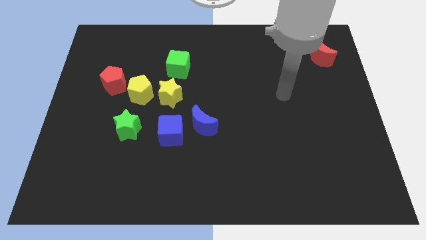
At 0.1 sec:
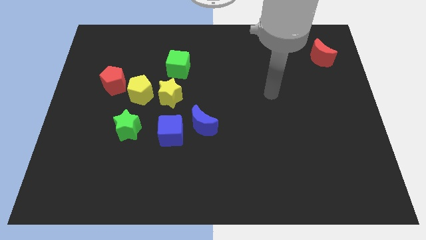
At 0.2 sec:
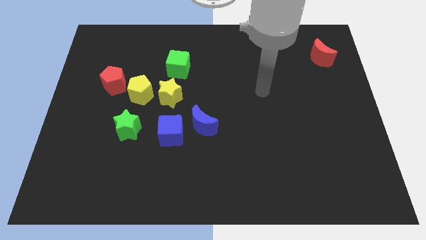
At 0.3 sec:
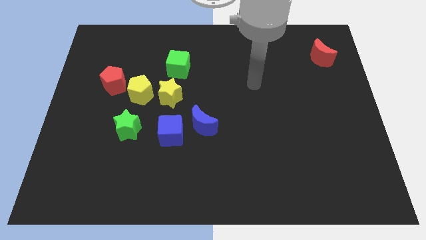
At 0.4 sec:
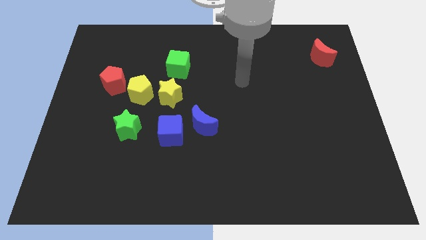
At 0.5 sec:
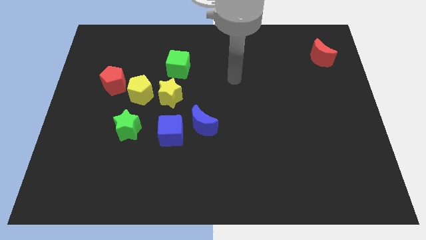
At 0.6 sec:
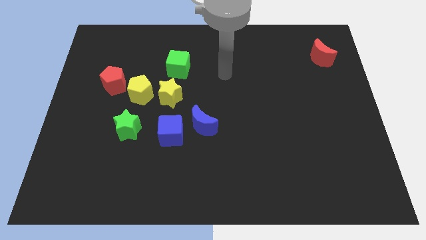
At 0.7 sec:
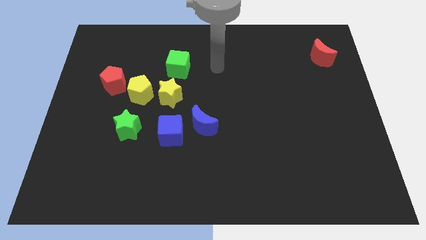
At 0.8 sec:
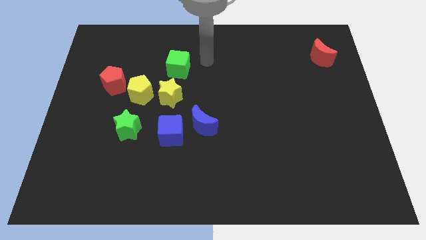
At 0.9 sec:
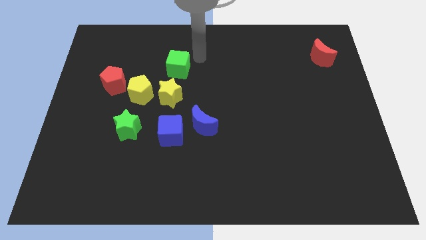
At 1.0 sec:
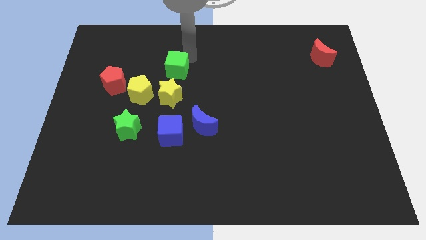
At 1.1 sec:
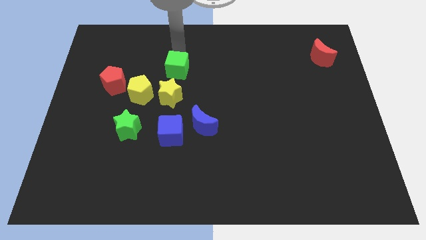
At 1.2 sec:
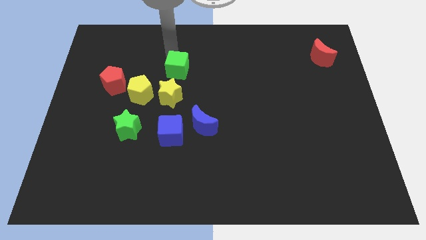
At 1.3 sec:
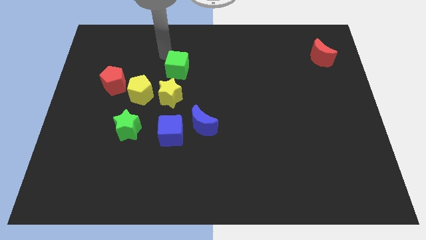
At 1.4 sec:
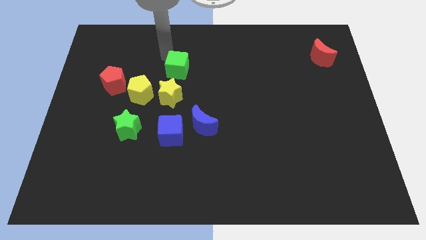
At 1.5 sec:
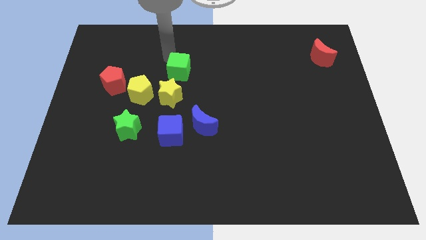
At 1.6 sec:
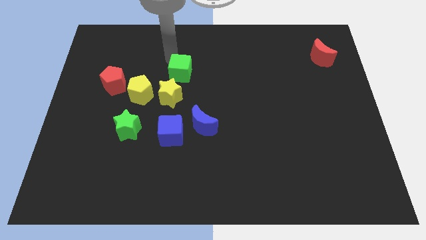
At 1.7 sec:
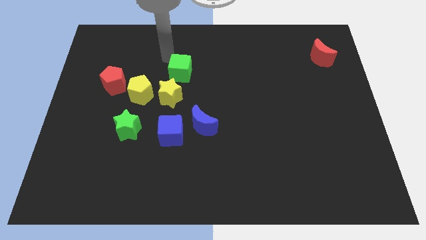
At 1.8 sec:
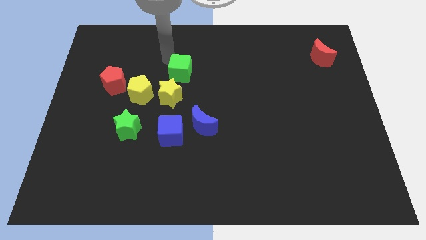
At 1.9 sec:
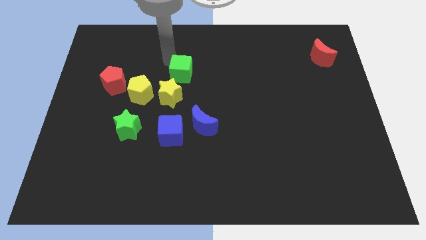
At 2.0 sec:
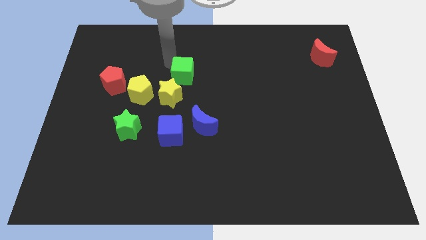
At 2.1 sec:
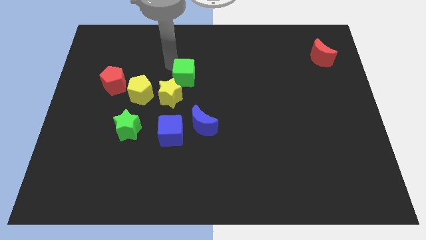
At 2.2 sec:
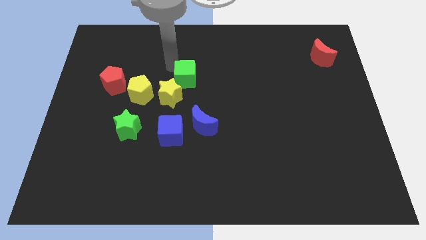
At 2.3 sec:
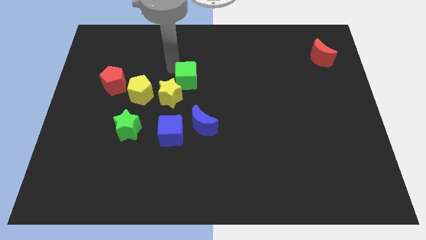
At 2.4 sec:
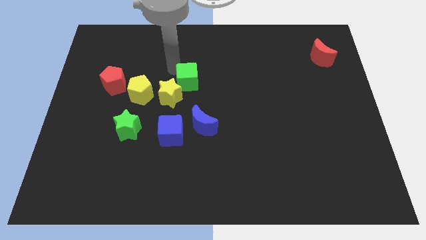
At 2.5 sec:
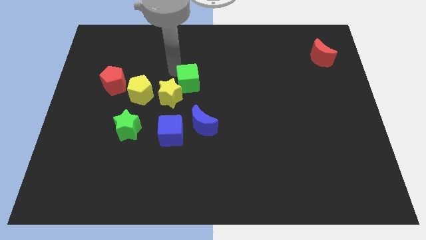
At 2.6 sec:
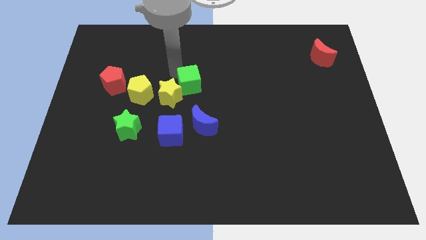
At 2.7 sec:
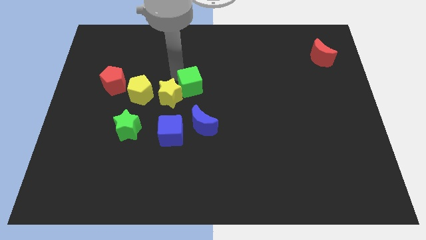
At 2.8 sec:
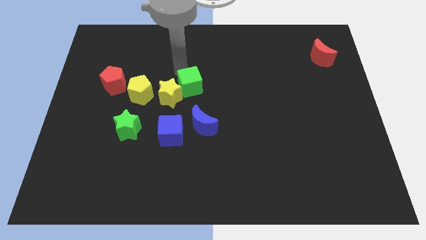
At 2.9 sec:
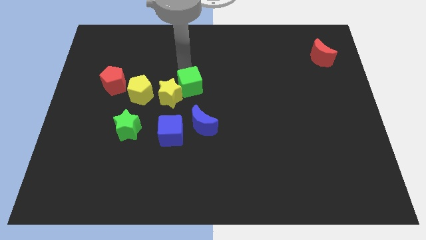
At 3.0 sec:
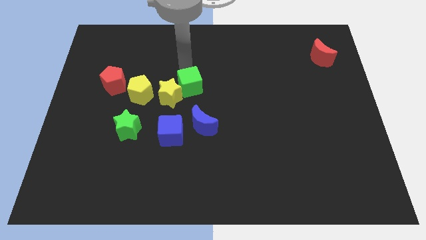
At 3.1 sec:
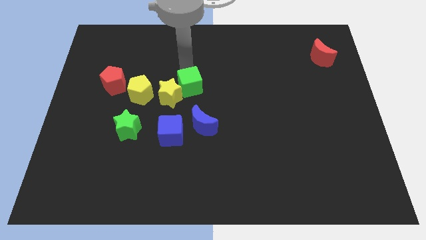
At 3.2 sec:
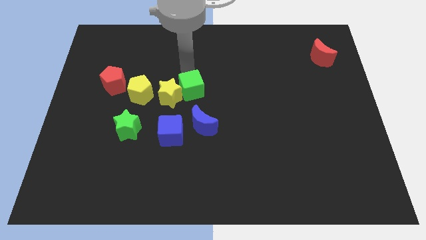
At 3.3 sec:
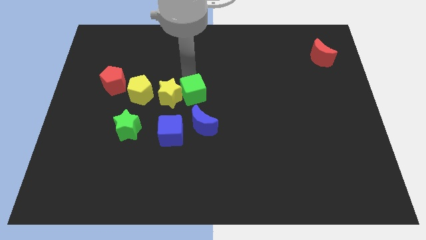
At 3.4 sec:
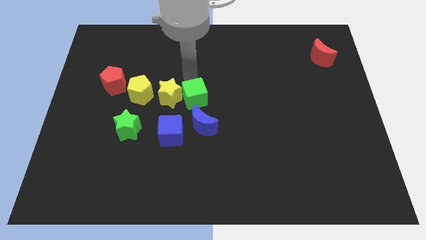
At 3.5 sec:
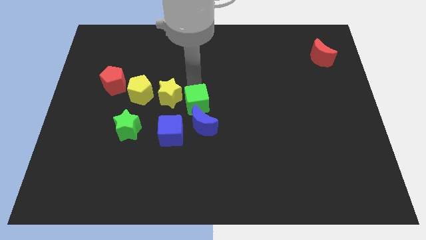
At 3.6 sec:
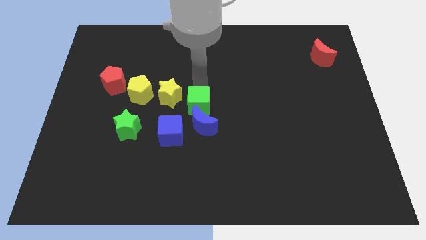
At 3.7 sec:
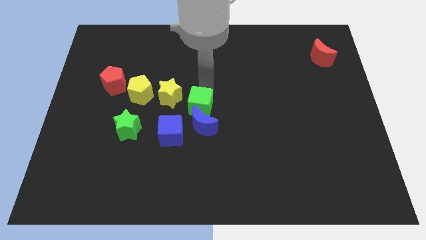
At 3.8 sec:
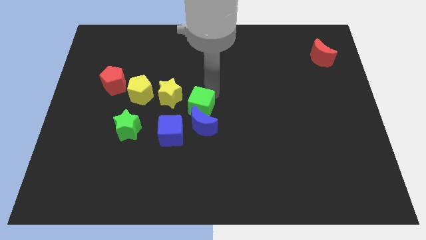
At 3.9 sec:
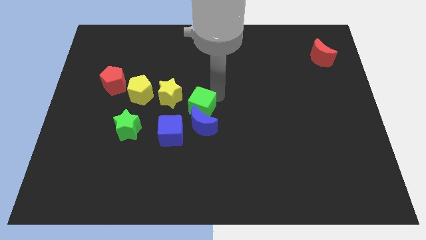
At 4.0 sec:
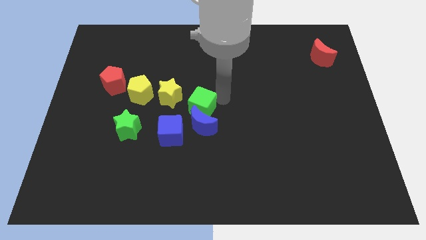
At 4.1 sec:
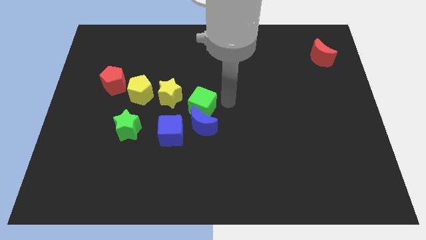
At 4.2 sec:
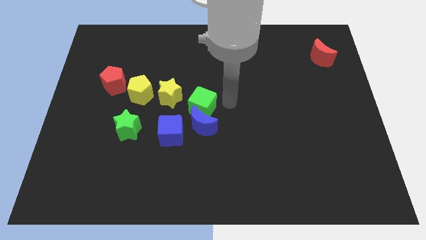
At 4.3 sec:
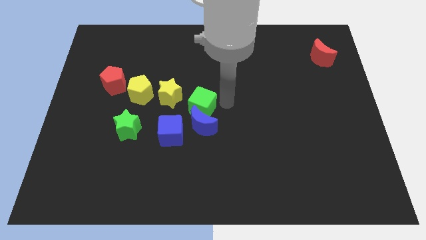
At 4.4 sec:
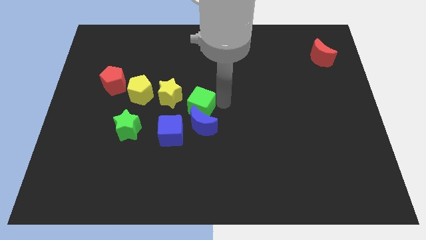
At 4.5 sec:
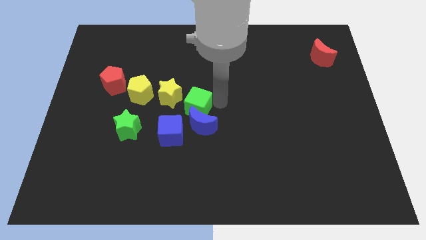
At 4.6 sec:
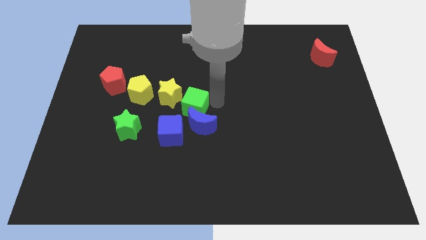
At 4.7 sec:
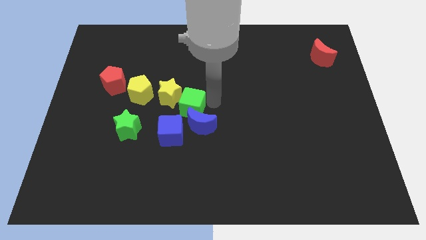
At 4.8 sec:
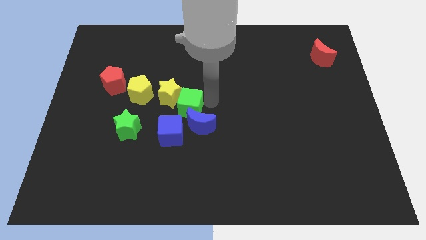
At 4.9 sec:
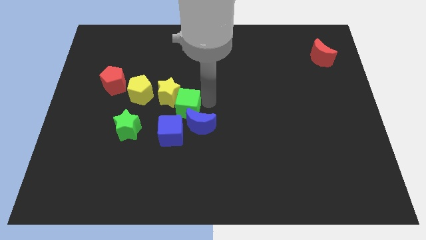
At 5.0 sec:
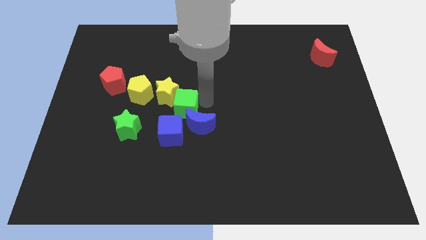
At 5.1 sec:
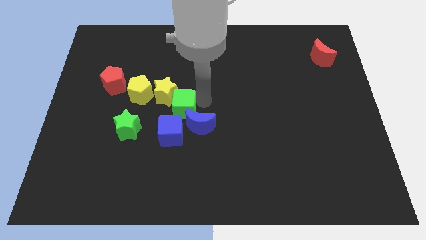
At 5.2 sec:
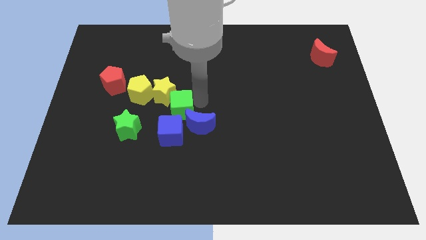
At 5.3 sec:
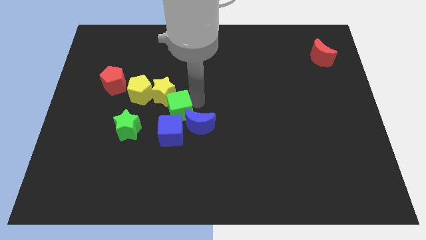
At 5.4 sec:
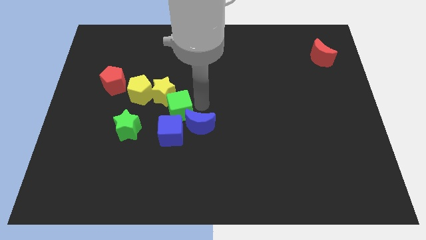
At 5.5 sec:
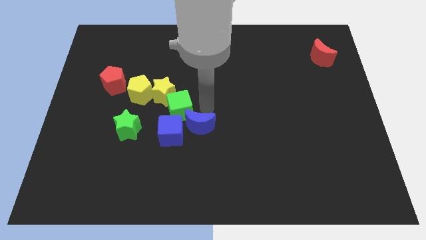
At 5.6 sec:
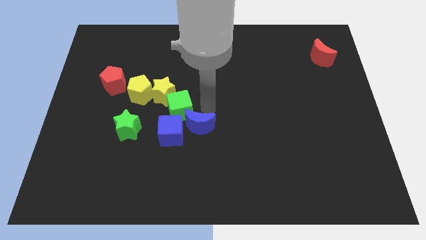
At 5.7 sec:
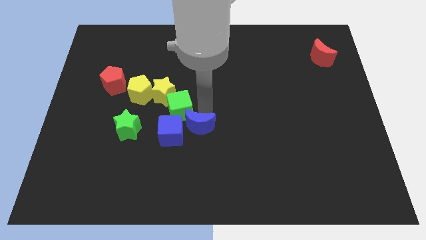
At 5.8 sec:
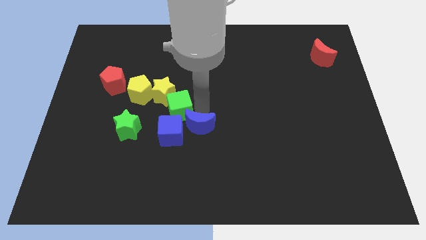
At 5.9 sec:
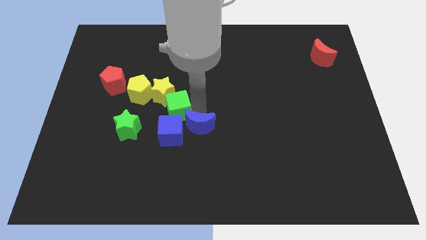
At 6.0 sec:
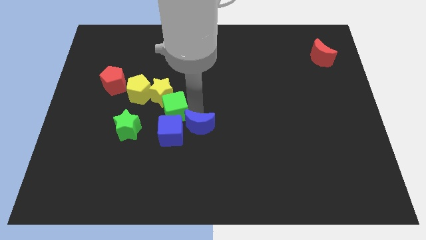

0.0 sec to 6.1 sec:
push the green cube diagonally up and to the right of the green star

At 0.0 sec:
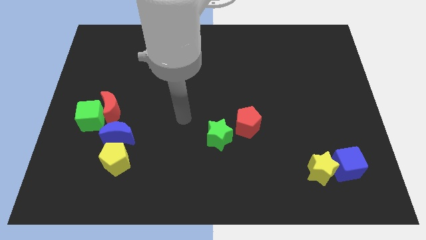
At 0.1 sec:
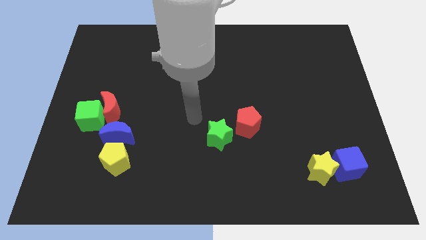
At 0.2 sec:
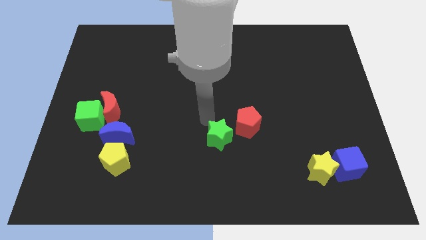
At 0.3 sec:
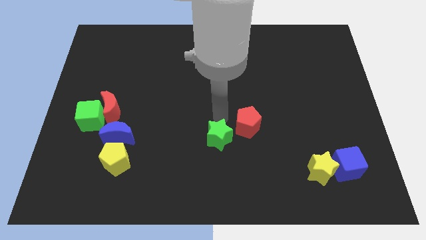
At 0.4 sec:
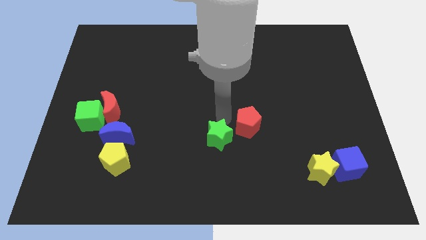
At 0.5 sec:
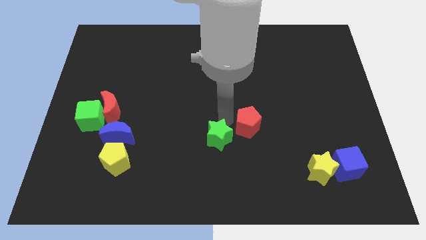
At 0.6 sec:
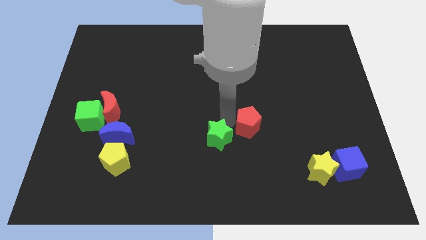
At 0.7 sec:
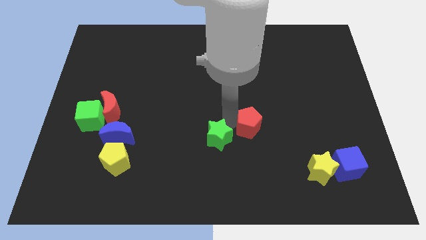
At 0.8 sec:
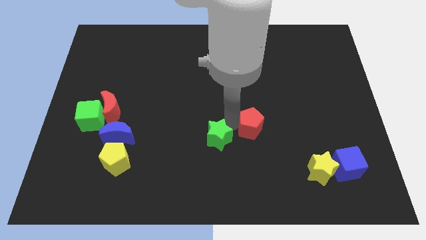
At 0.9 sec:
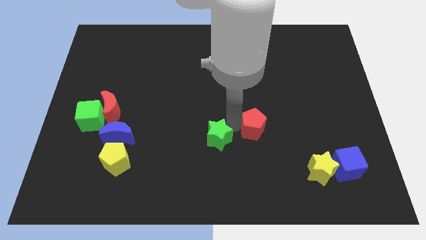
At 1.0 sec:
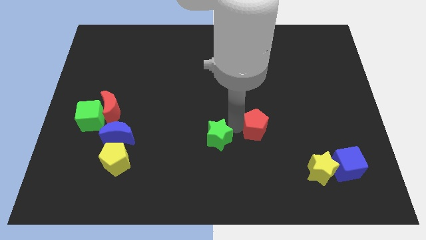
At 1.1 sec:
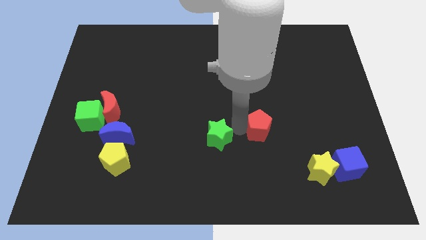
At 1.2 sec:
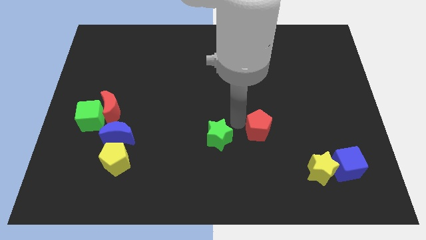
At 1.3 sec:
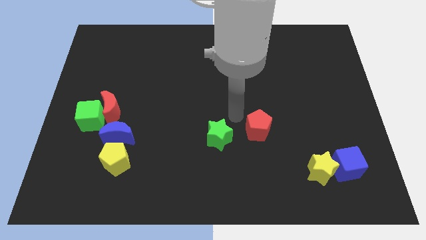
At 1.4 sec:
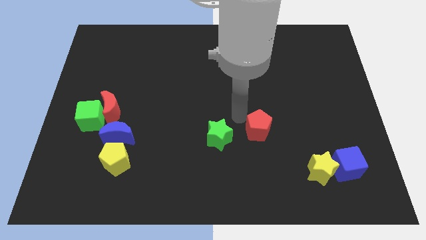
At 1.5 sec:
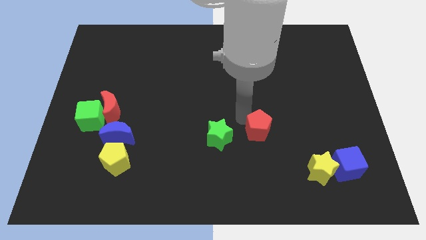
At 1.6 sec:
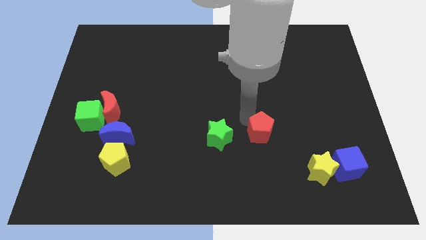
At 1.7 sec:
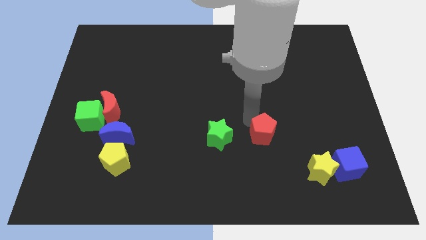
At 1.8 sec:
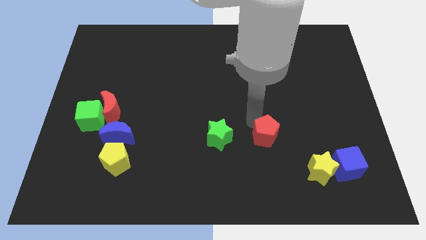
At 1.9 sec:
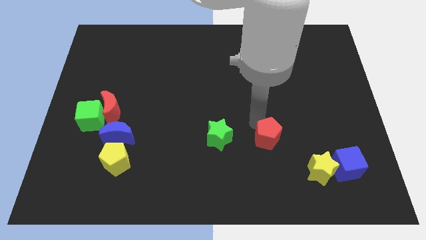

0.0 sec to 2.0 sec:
move the red pentagon to the top left of the yellow star

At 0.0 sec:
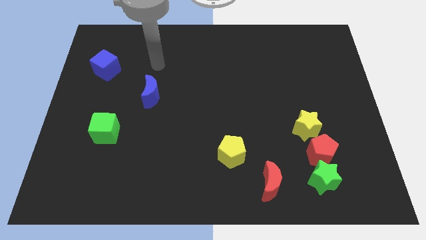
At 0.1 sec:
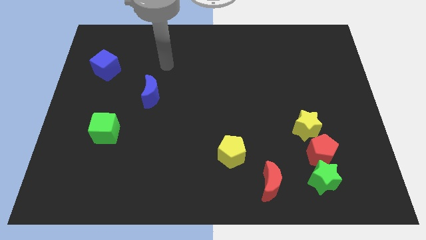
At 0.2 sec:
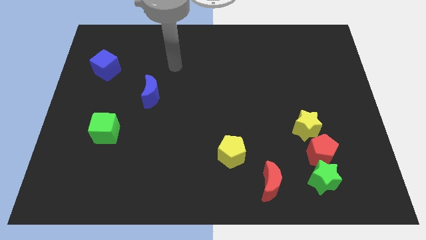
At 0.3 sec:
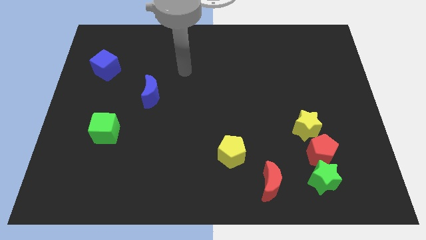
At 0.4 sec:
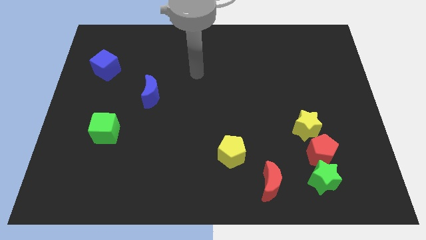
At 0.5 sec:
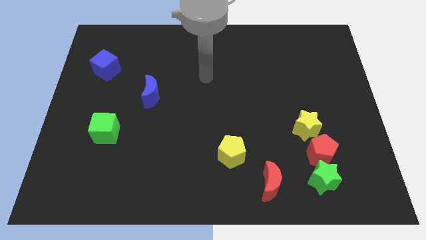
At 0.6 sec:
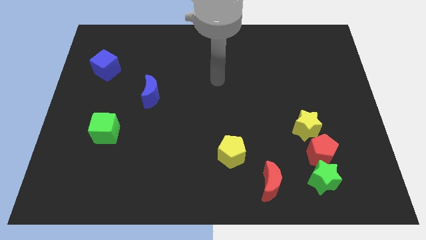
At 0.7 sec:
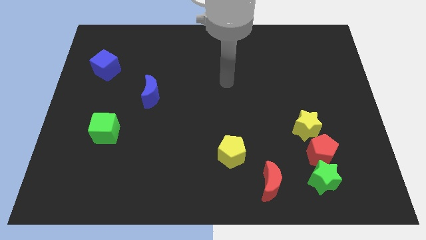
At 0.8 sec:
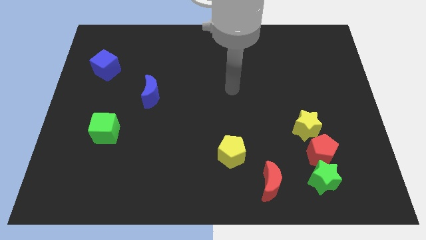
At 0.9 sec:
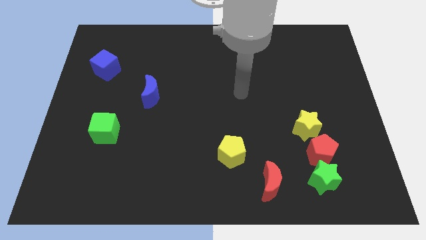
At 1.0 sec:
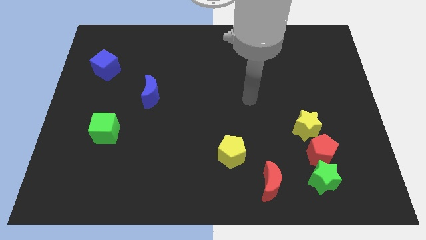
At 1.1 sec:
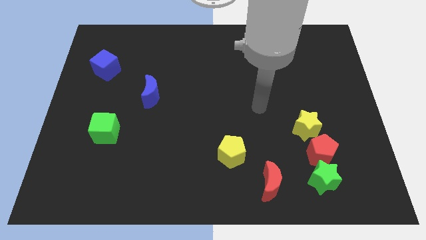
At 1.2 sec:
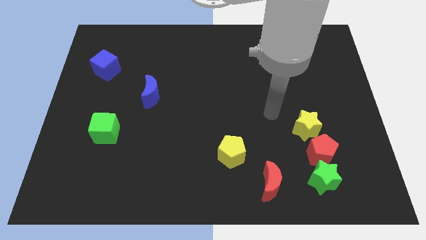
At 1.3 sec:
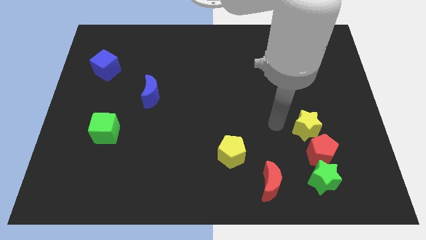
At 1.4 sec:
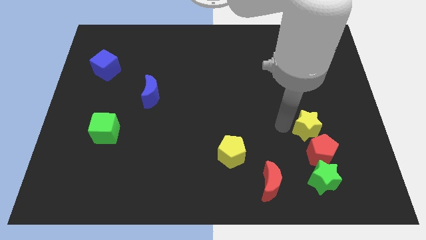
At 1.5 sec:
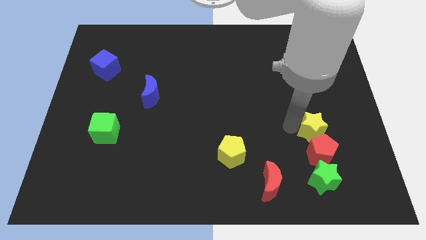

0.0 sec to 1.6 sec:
slide the yellow star diagonally up and to the right of the red pentagon
